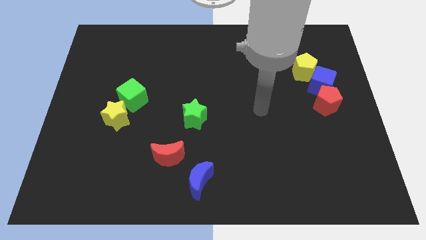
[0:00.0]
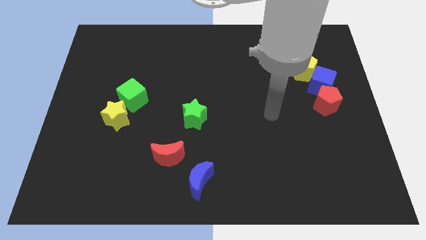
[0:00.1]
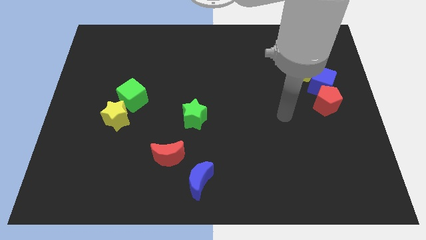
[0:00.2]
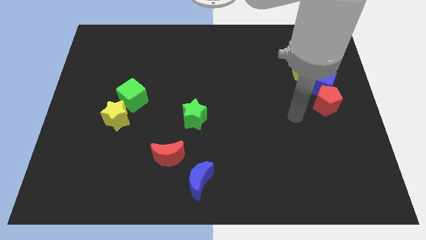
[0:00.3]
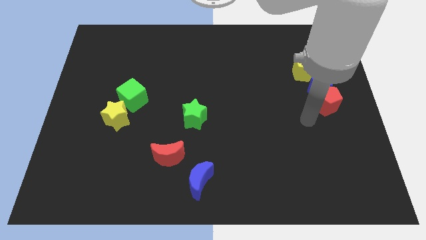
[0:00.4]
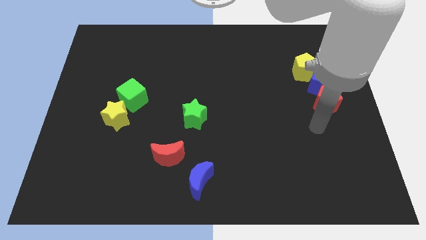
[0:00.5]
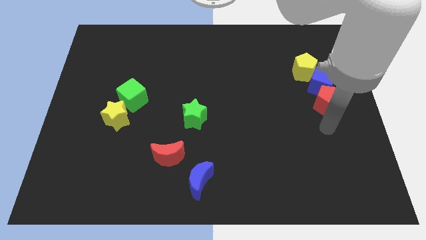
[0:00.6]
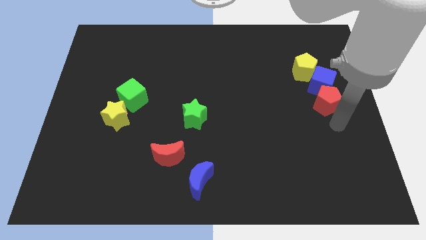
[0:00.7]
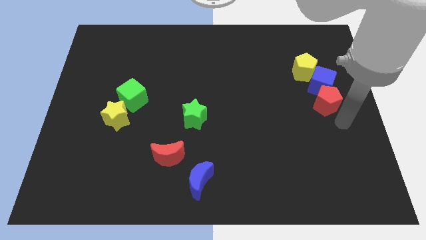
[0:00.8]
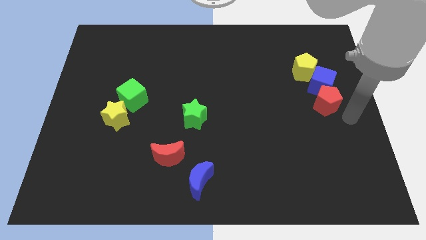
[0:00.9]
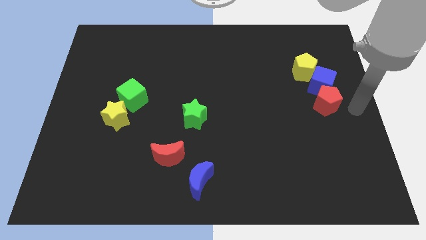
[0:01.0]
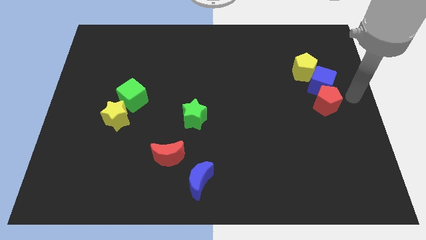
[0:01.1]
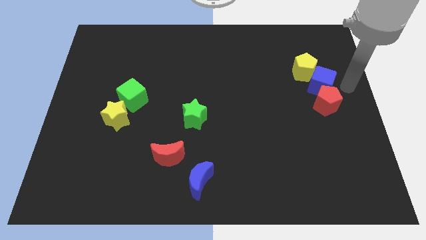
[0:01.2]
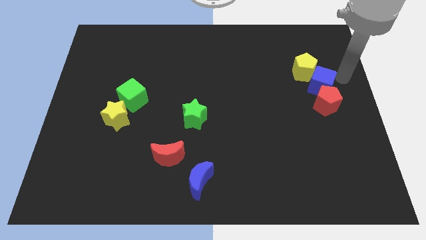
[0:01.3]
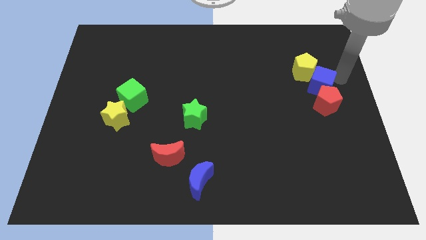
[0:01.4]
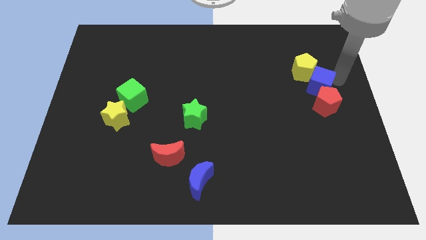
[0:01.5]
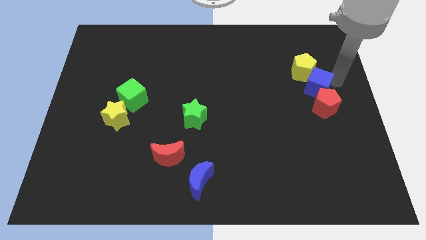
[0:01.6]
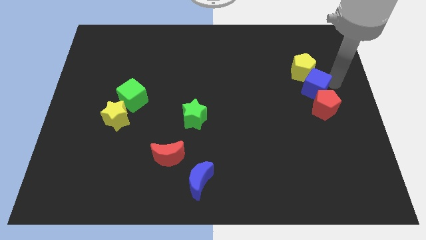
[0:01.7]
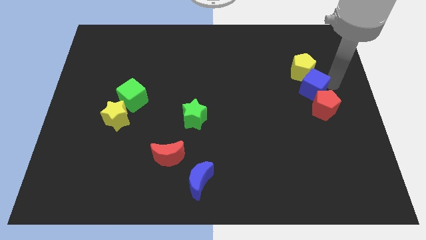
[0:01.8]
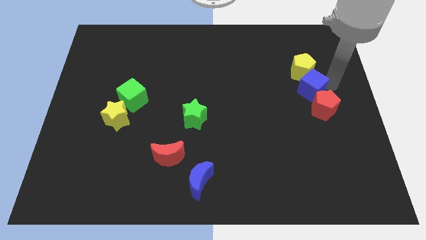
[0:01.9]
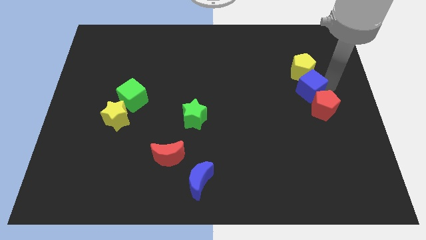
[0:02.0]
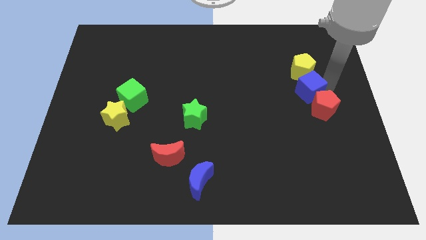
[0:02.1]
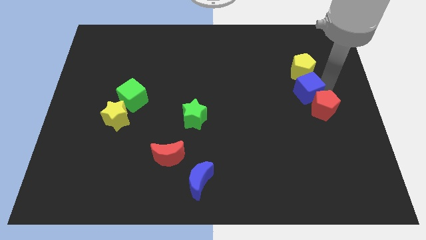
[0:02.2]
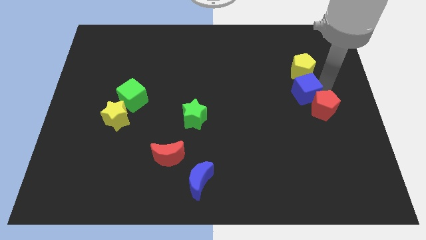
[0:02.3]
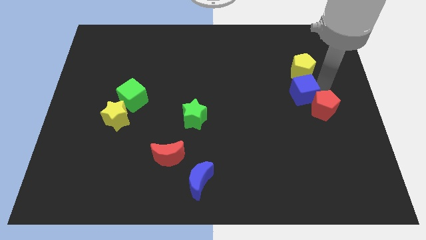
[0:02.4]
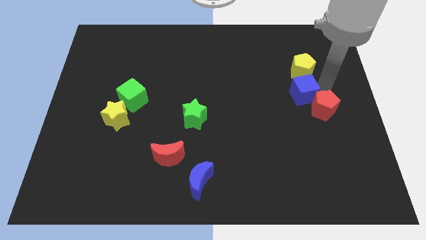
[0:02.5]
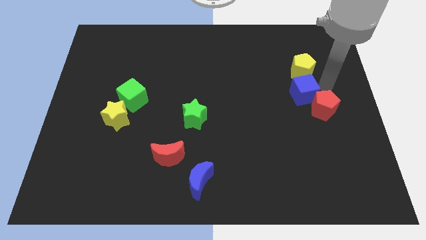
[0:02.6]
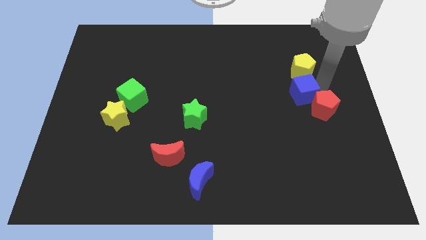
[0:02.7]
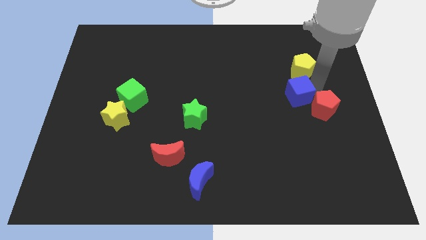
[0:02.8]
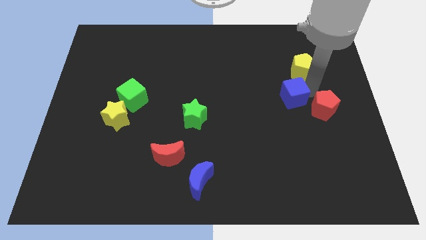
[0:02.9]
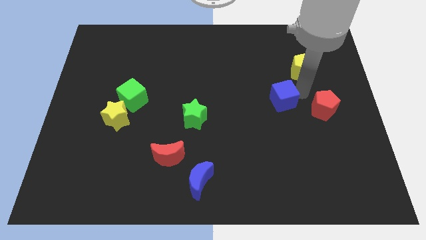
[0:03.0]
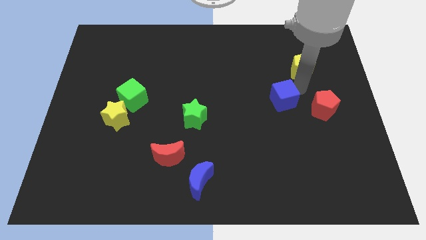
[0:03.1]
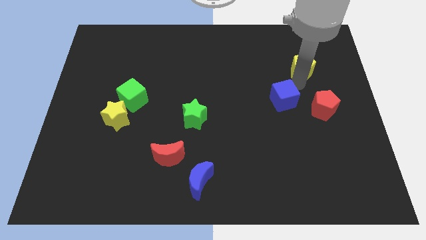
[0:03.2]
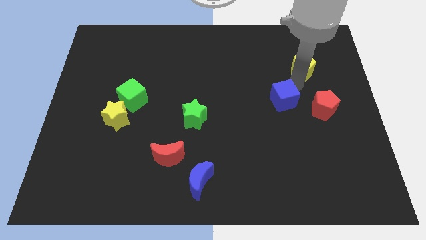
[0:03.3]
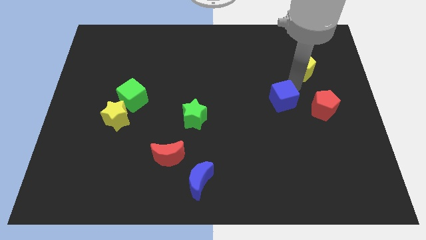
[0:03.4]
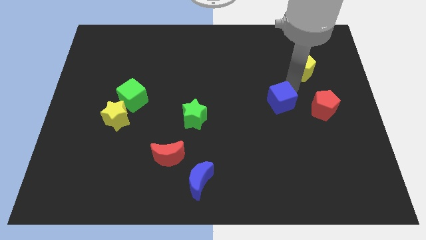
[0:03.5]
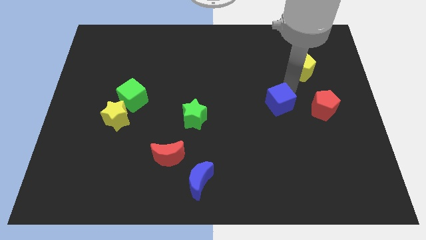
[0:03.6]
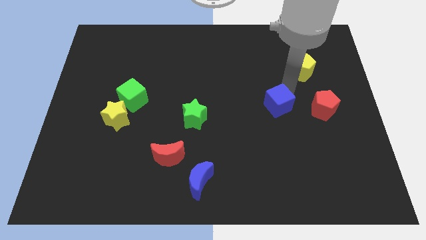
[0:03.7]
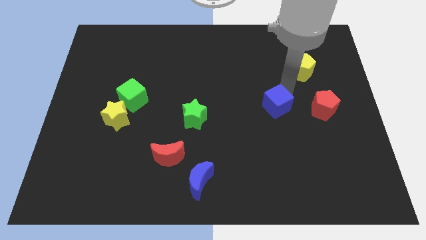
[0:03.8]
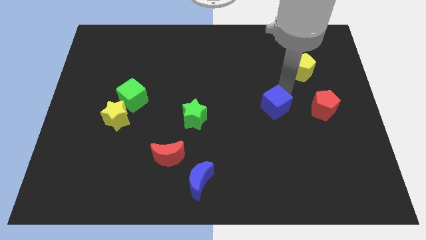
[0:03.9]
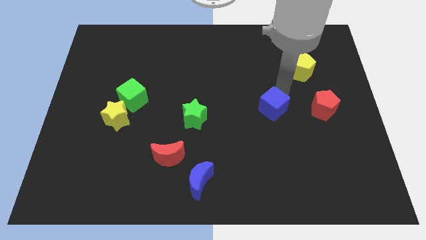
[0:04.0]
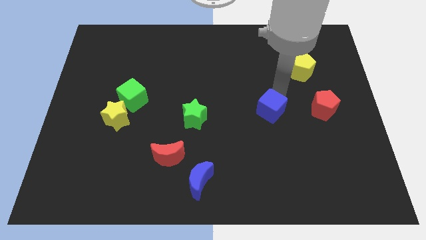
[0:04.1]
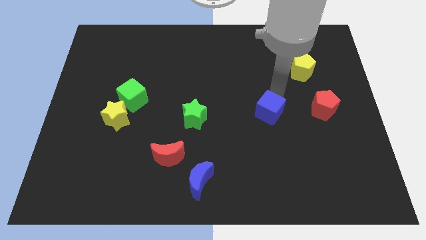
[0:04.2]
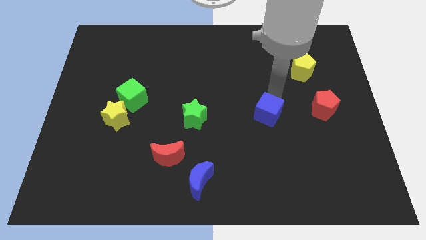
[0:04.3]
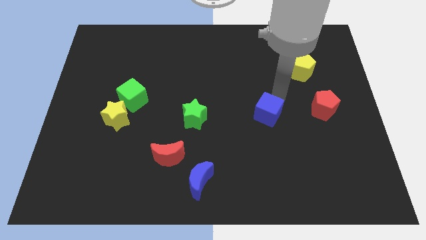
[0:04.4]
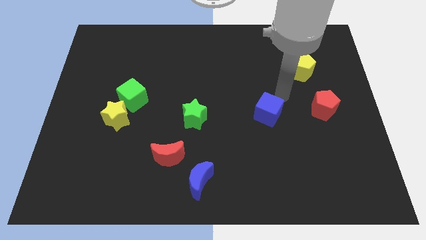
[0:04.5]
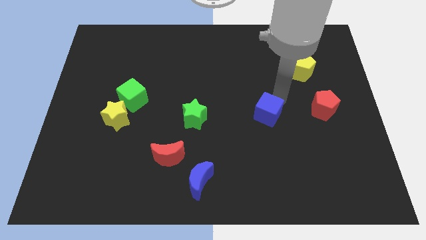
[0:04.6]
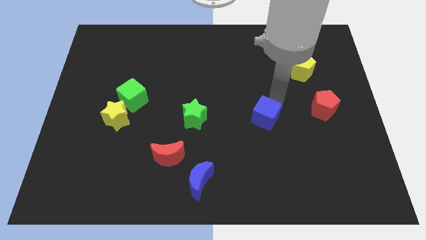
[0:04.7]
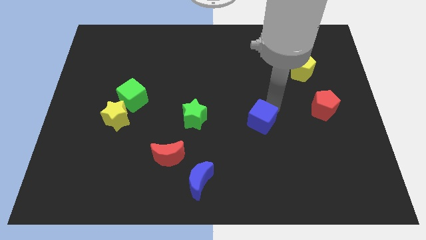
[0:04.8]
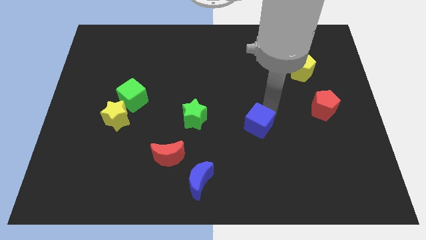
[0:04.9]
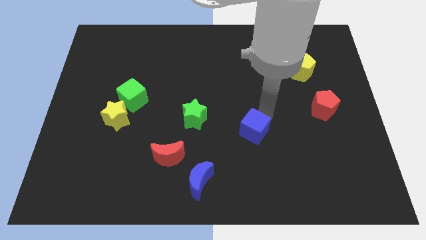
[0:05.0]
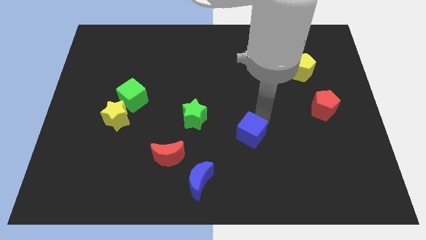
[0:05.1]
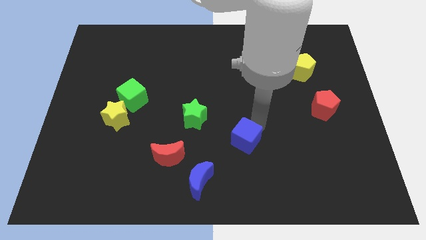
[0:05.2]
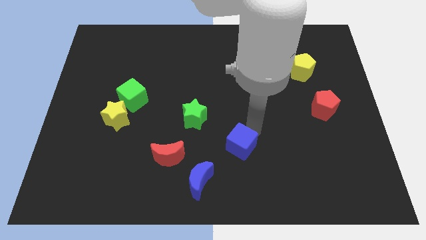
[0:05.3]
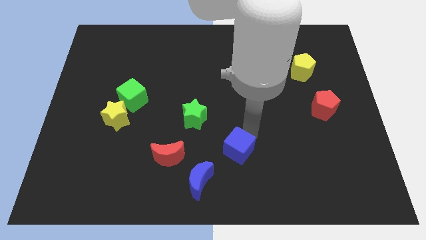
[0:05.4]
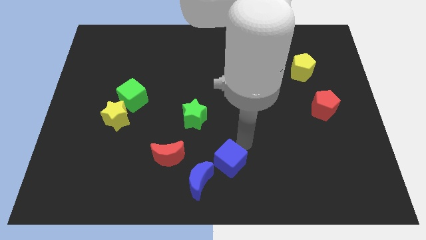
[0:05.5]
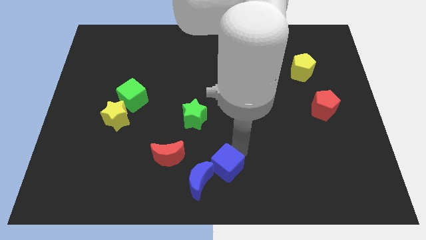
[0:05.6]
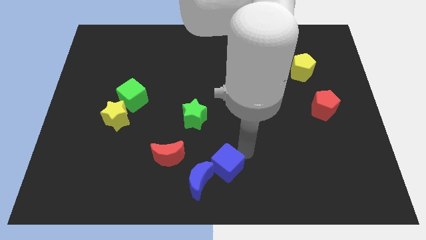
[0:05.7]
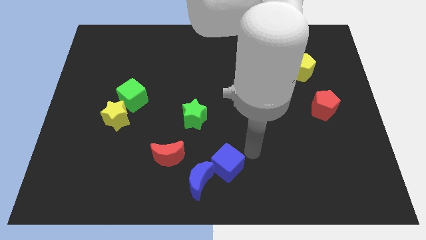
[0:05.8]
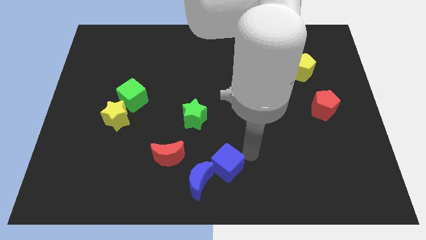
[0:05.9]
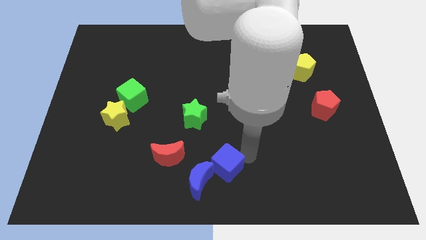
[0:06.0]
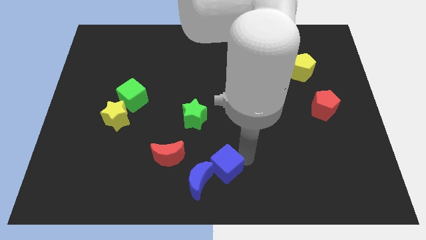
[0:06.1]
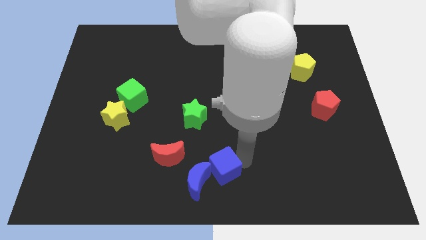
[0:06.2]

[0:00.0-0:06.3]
push the blue cube towards the blue moon

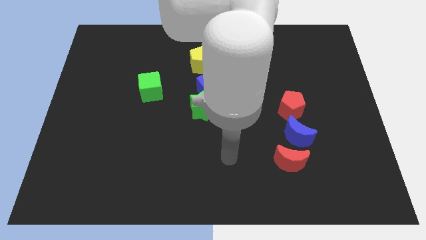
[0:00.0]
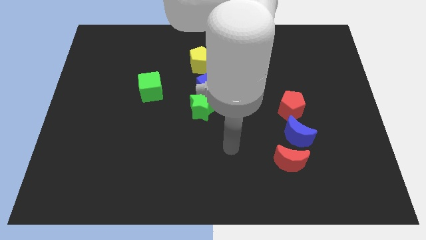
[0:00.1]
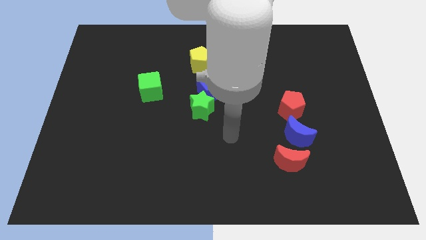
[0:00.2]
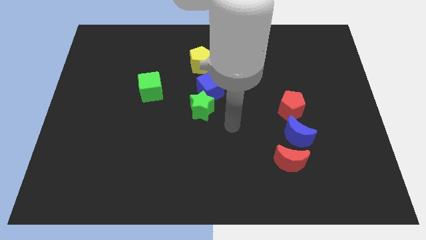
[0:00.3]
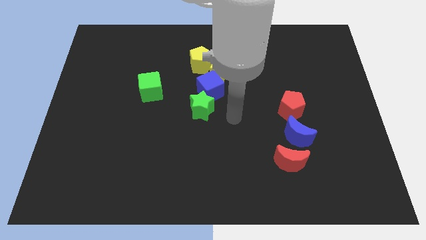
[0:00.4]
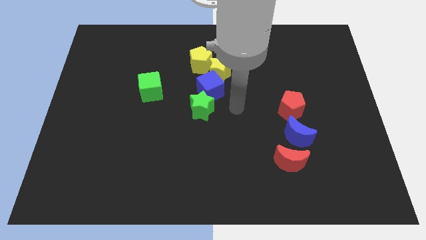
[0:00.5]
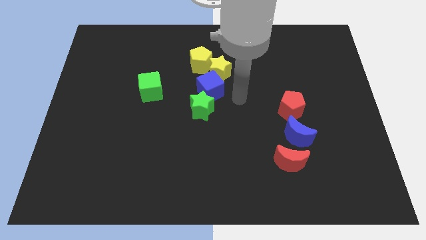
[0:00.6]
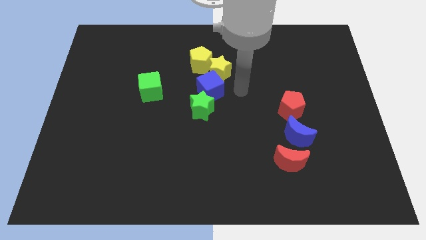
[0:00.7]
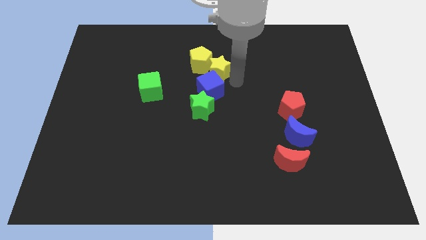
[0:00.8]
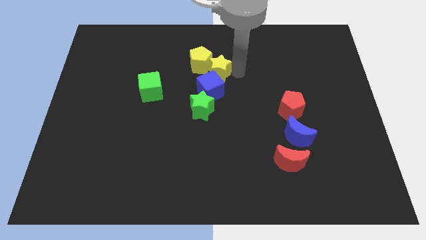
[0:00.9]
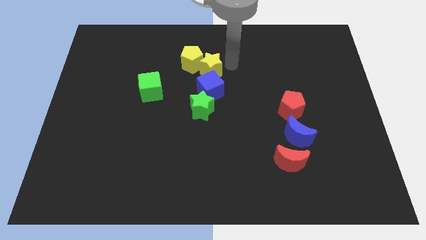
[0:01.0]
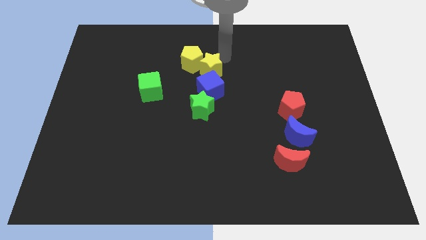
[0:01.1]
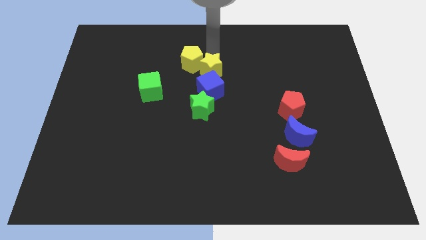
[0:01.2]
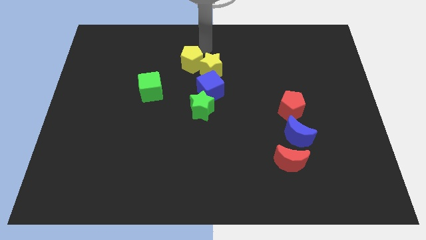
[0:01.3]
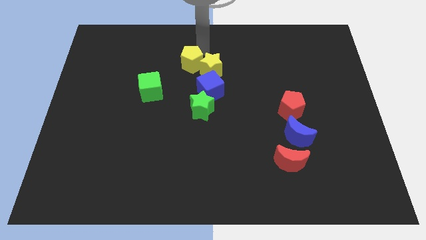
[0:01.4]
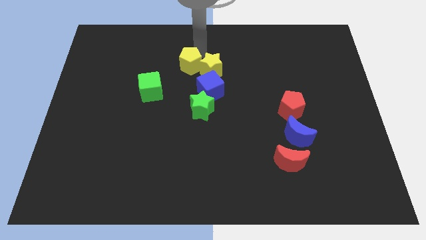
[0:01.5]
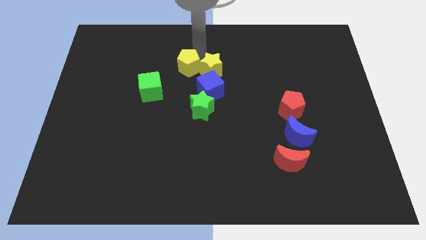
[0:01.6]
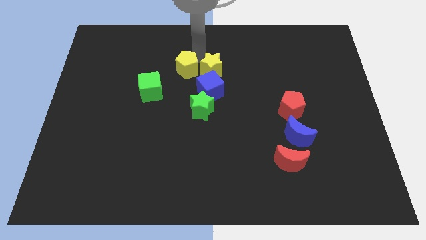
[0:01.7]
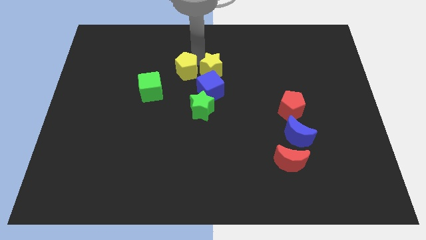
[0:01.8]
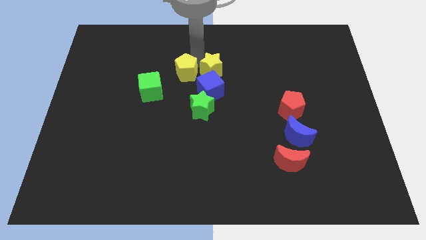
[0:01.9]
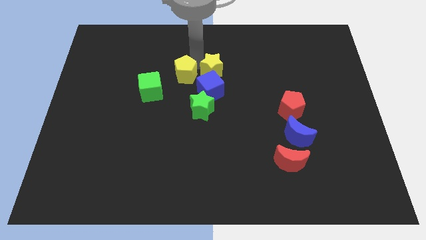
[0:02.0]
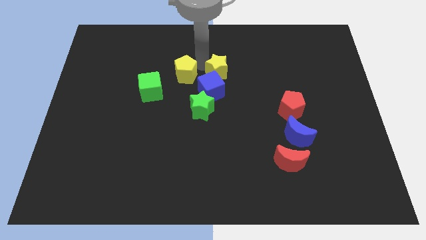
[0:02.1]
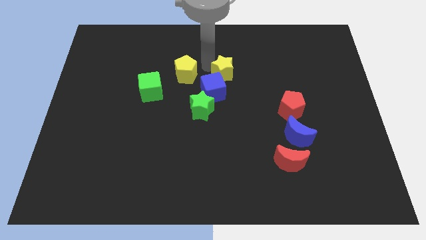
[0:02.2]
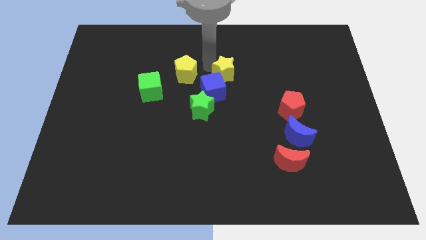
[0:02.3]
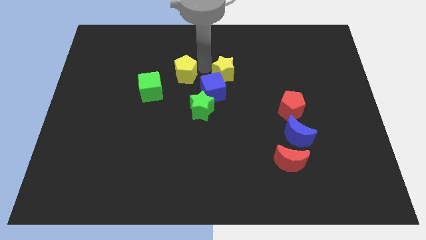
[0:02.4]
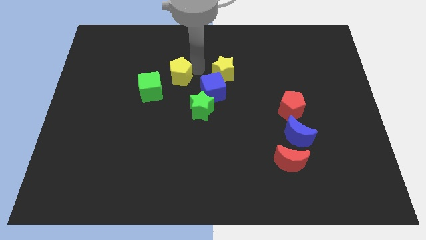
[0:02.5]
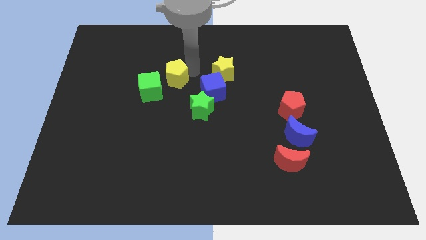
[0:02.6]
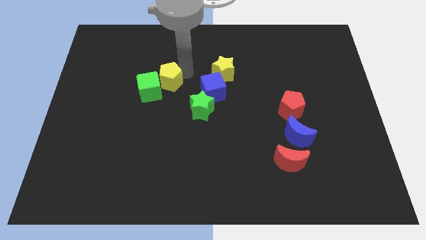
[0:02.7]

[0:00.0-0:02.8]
push the yellow pentagon to the green cube
